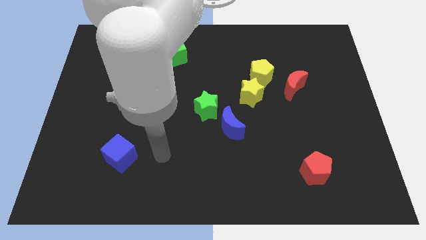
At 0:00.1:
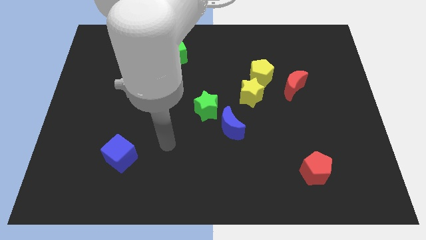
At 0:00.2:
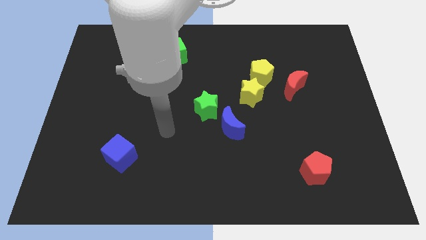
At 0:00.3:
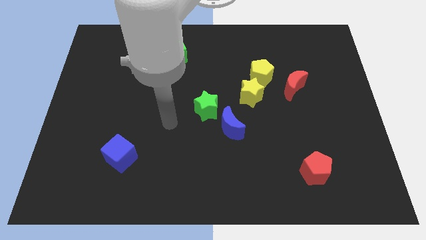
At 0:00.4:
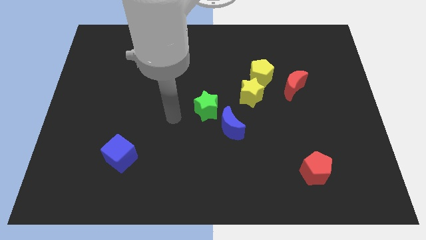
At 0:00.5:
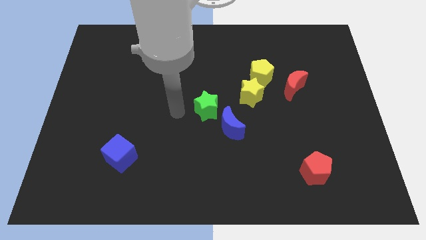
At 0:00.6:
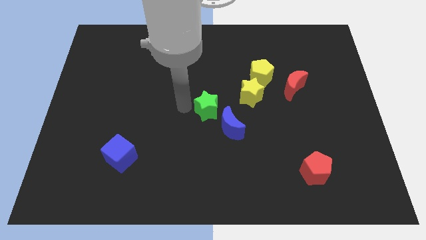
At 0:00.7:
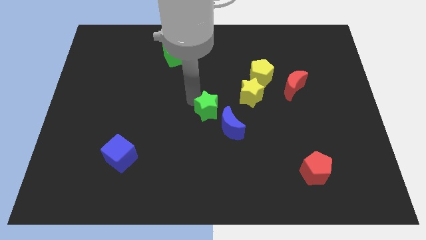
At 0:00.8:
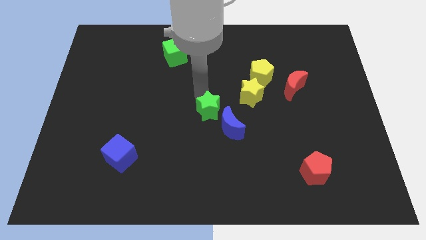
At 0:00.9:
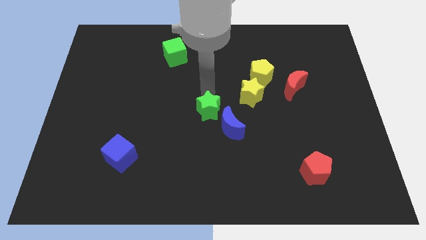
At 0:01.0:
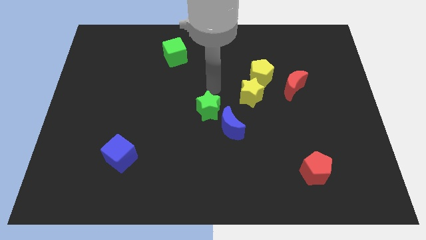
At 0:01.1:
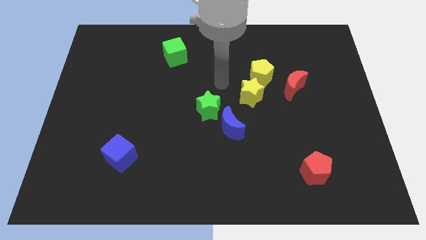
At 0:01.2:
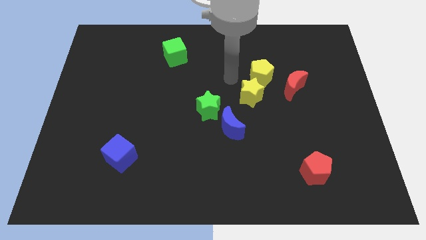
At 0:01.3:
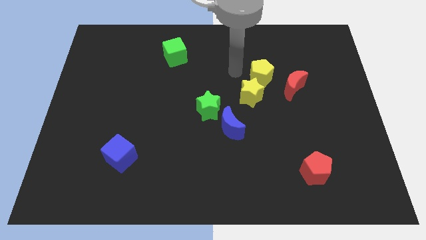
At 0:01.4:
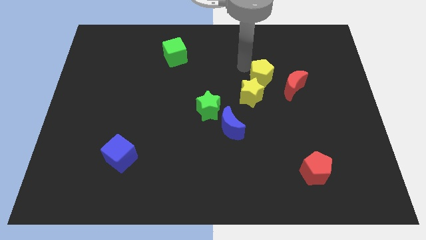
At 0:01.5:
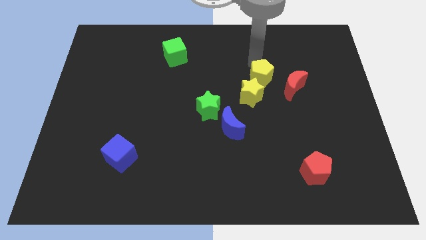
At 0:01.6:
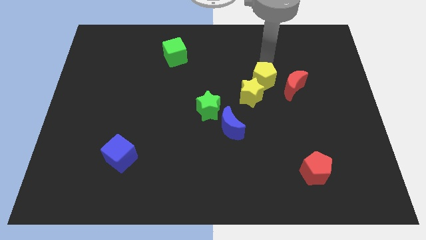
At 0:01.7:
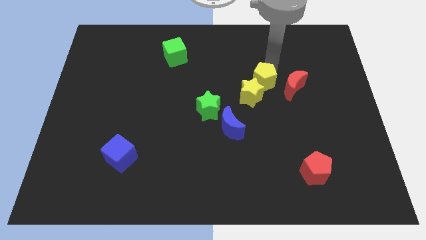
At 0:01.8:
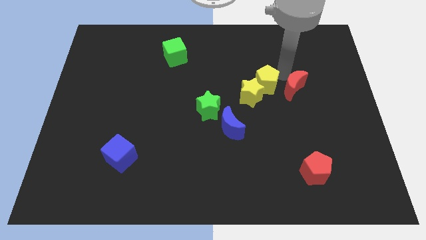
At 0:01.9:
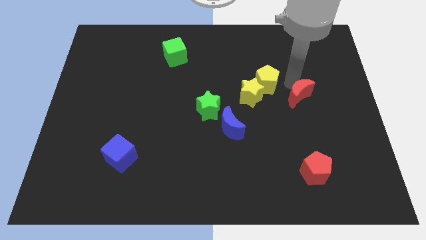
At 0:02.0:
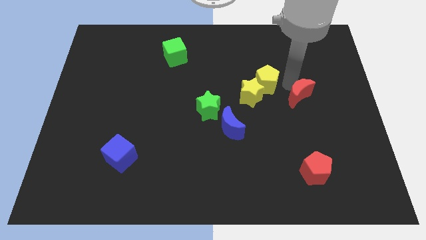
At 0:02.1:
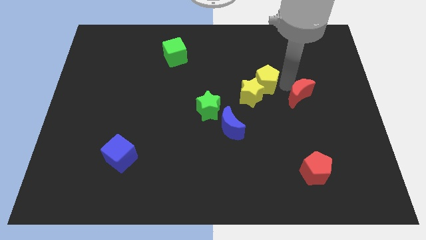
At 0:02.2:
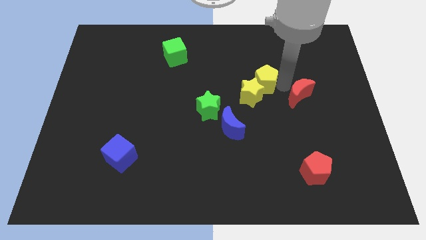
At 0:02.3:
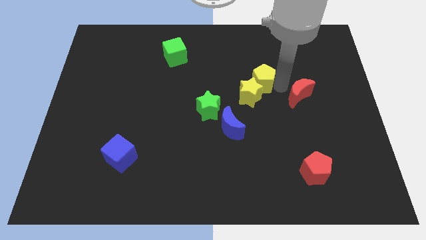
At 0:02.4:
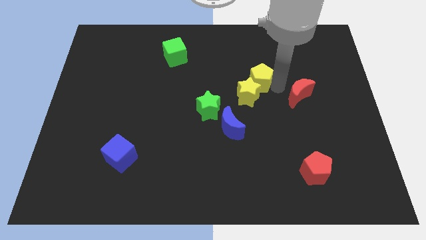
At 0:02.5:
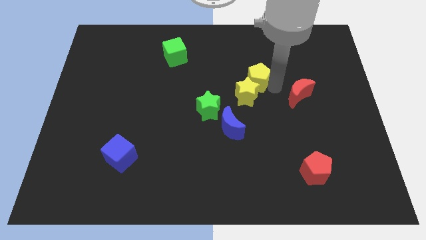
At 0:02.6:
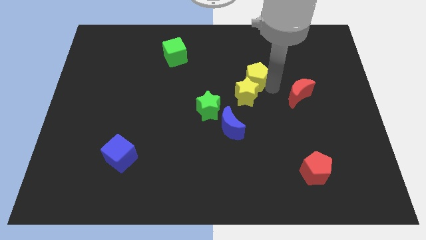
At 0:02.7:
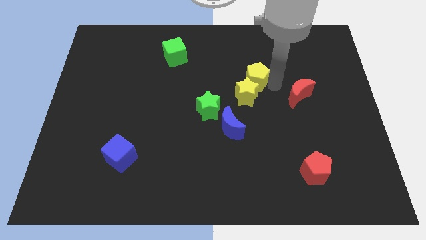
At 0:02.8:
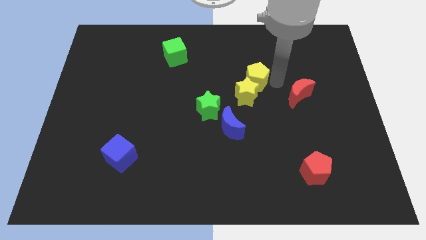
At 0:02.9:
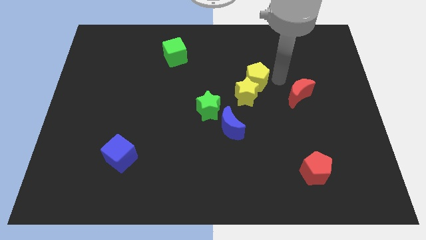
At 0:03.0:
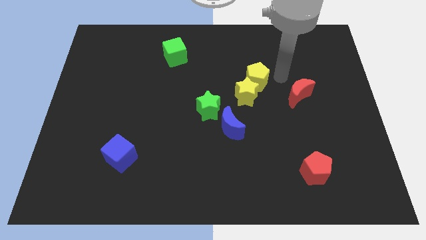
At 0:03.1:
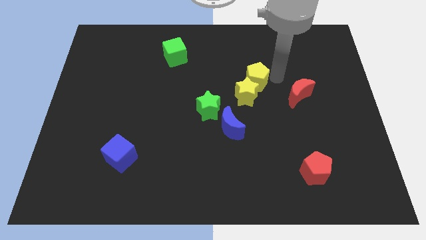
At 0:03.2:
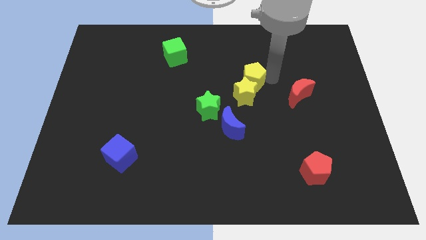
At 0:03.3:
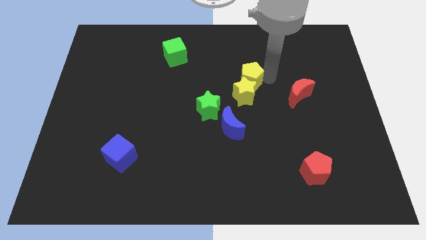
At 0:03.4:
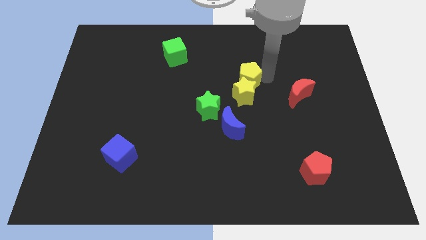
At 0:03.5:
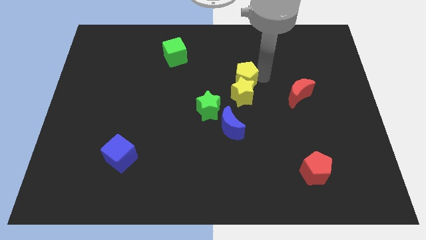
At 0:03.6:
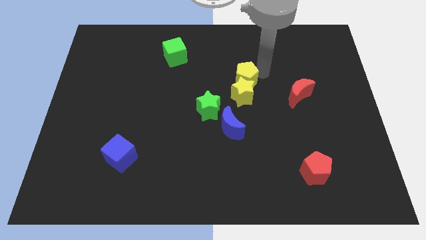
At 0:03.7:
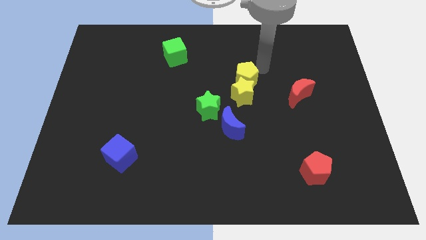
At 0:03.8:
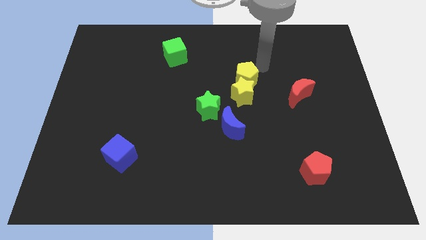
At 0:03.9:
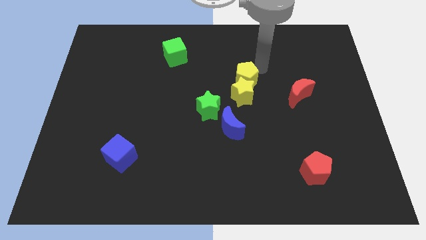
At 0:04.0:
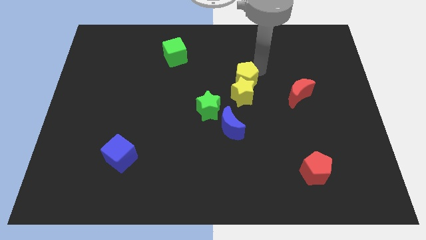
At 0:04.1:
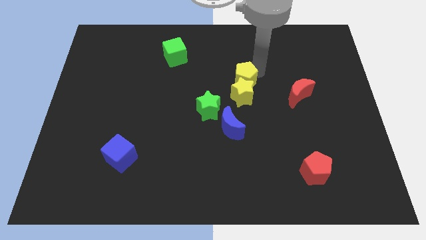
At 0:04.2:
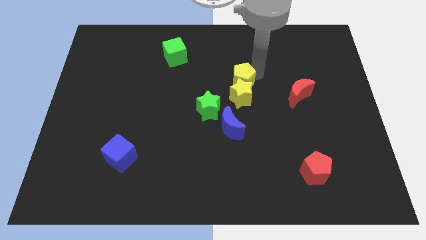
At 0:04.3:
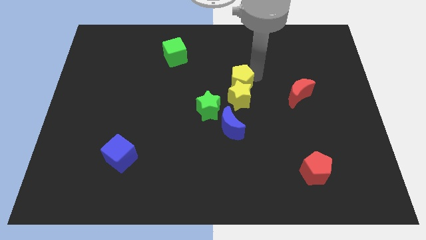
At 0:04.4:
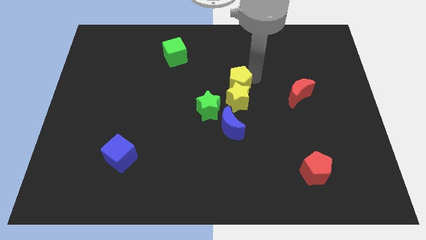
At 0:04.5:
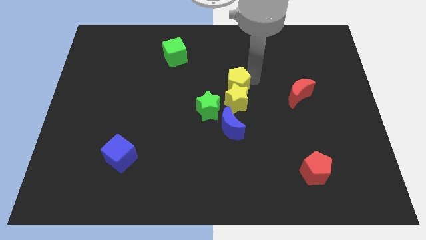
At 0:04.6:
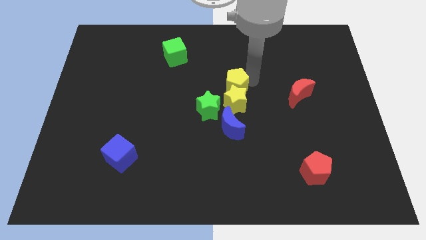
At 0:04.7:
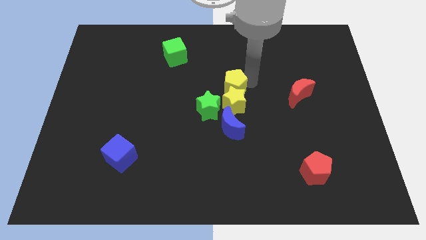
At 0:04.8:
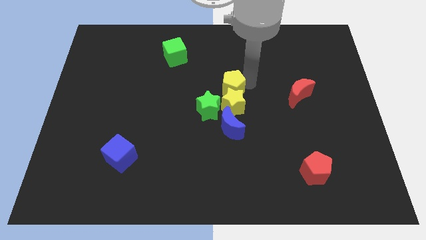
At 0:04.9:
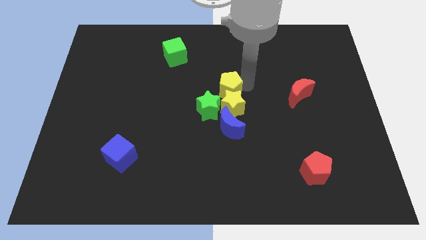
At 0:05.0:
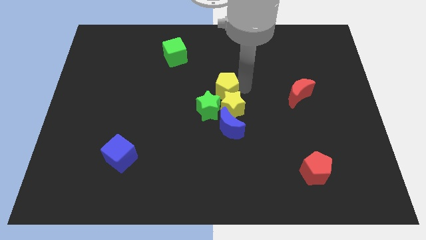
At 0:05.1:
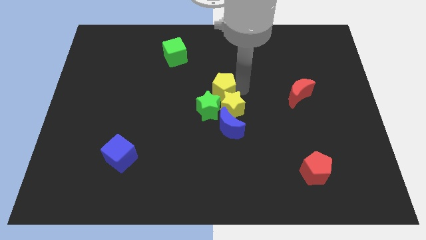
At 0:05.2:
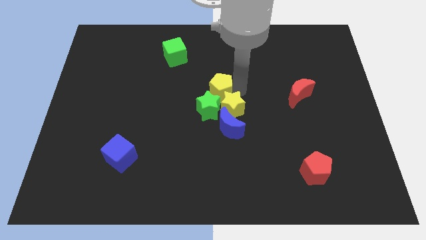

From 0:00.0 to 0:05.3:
slide the yellow pentagon towards the green star

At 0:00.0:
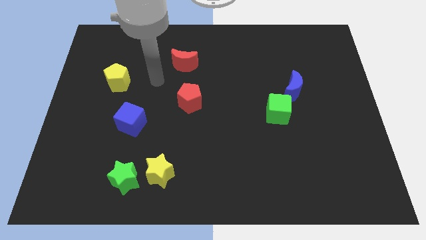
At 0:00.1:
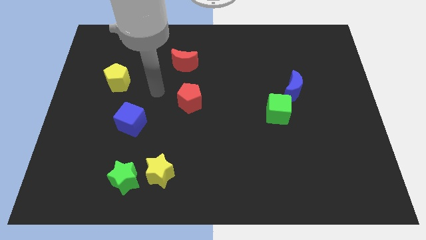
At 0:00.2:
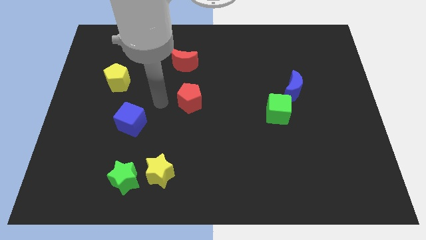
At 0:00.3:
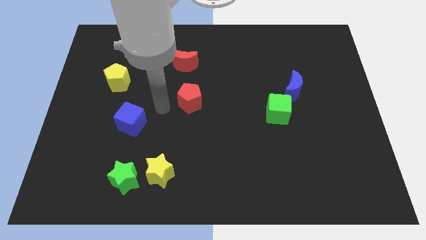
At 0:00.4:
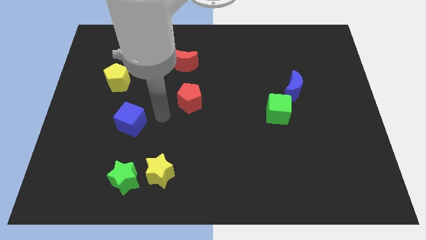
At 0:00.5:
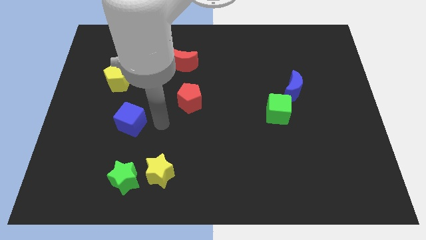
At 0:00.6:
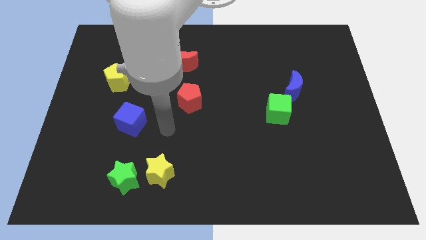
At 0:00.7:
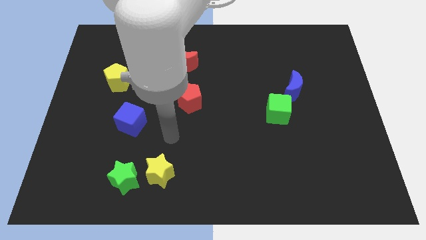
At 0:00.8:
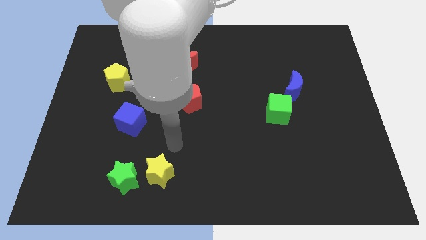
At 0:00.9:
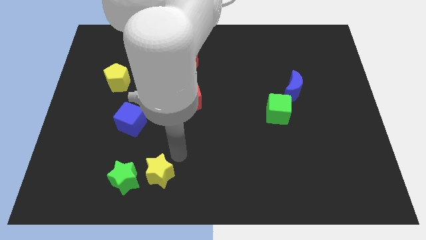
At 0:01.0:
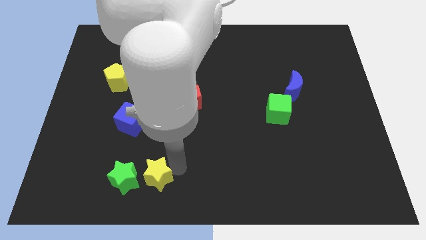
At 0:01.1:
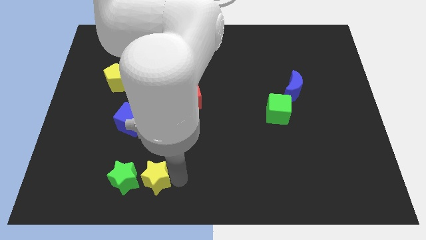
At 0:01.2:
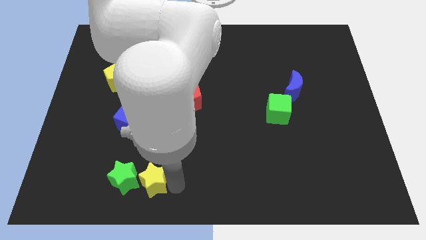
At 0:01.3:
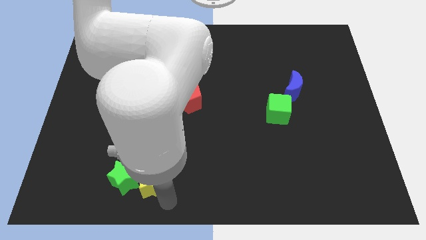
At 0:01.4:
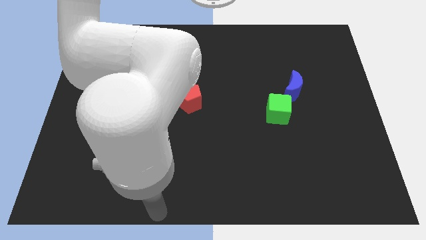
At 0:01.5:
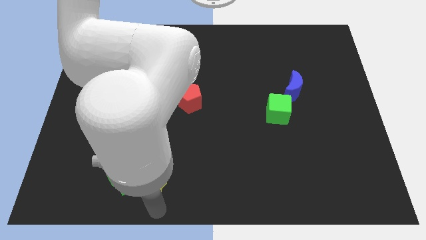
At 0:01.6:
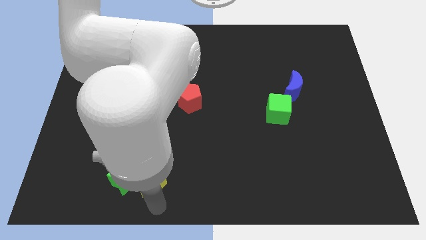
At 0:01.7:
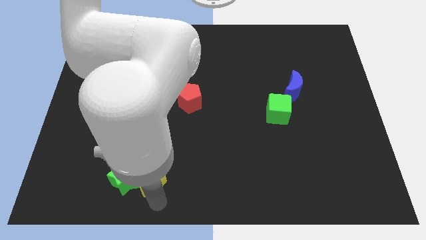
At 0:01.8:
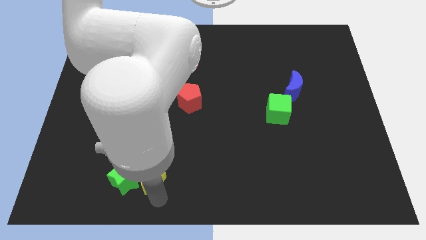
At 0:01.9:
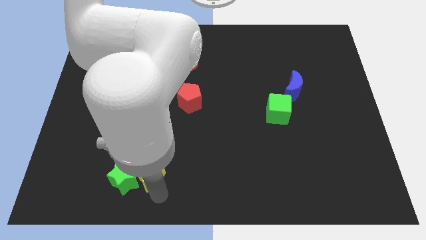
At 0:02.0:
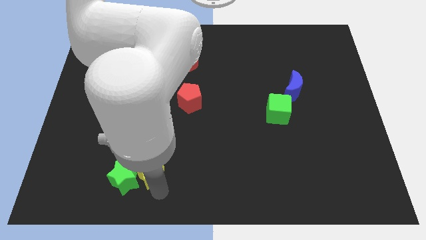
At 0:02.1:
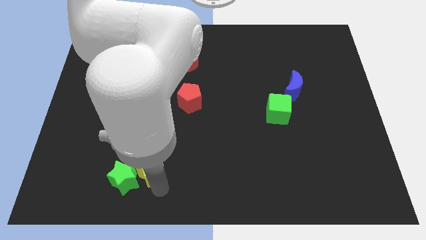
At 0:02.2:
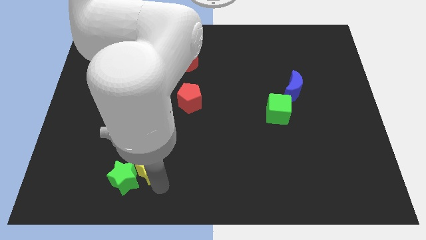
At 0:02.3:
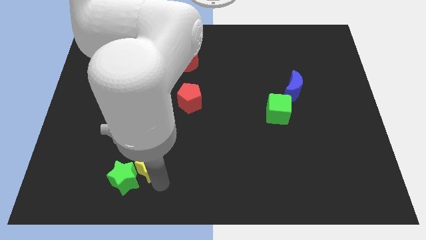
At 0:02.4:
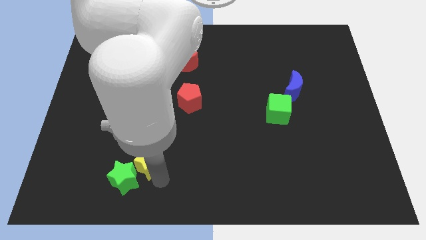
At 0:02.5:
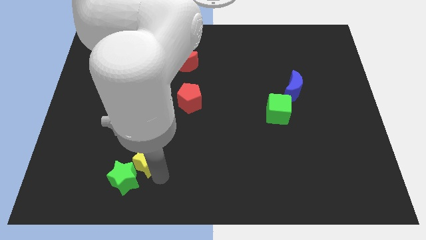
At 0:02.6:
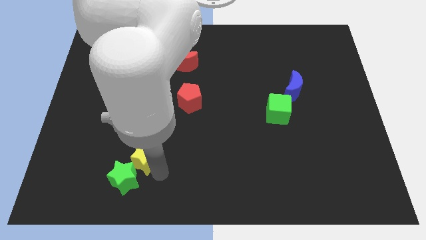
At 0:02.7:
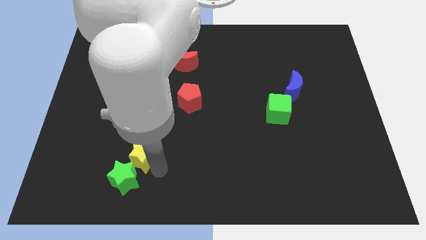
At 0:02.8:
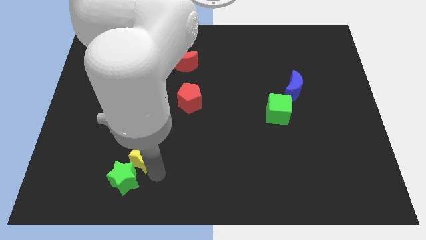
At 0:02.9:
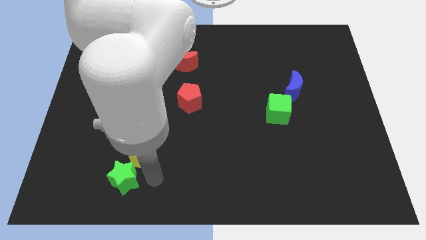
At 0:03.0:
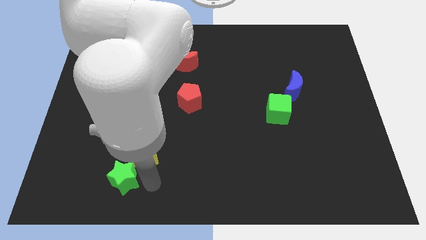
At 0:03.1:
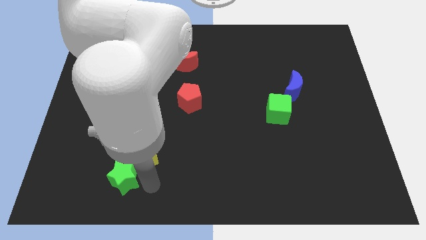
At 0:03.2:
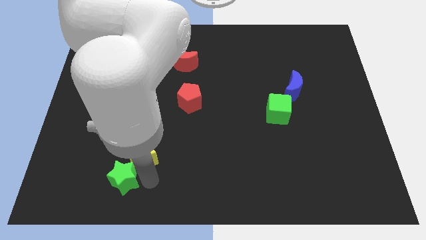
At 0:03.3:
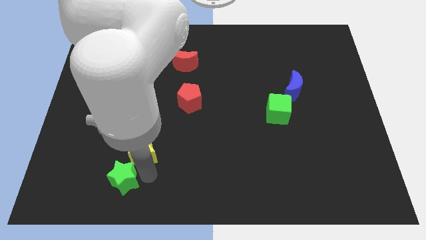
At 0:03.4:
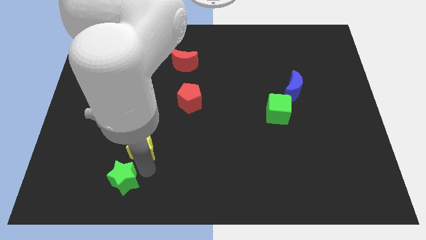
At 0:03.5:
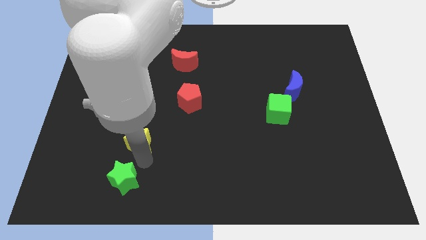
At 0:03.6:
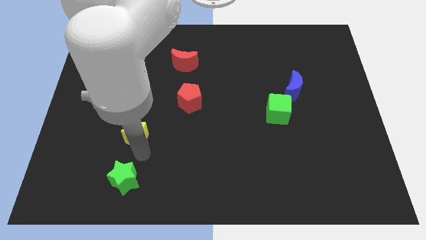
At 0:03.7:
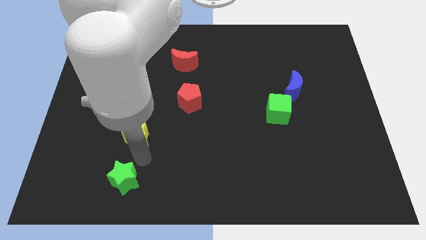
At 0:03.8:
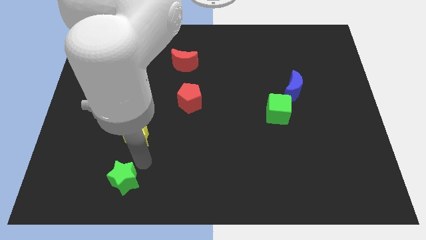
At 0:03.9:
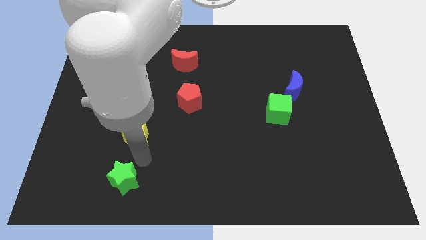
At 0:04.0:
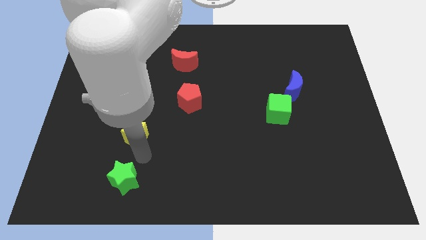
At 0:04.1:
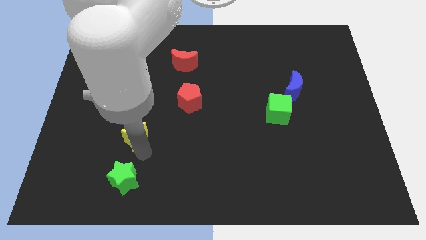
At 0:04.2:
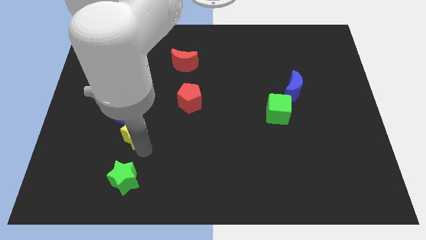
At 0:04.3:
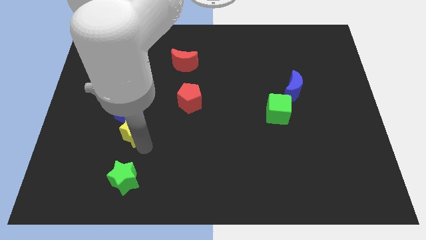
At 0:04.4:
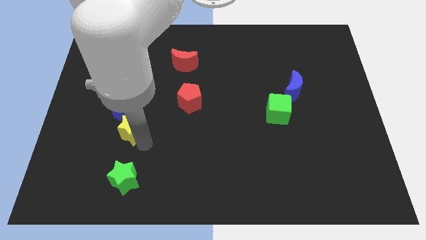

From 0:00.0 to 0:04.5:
move the yellow star to the blue cube
